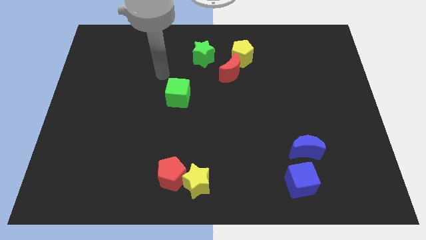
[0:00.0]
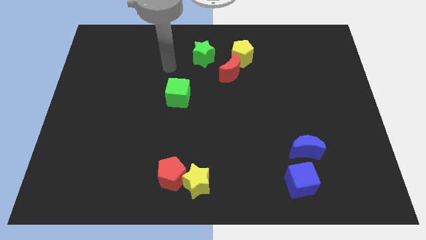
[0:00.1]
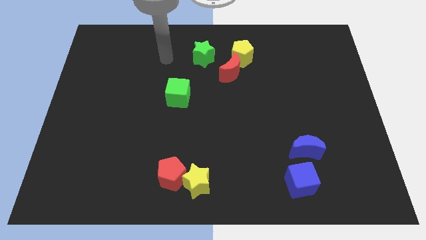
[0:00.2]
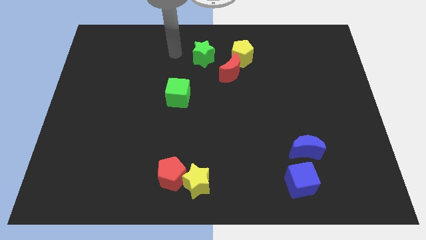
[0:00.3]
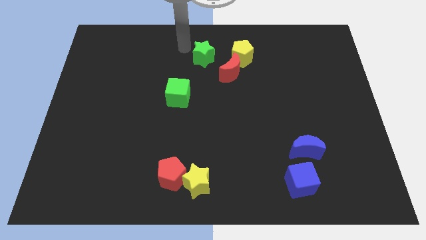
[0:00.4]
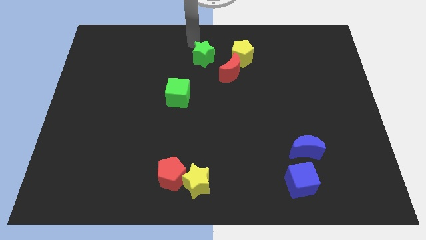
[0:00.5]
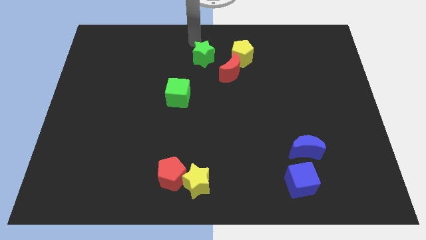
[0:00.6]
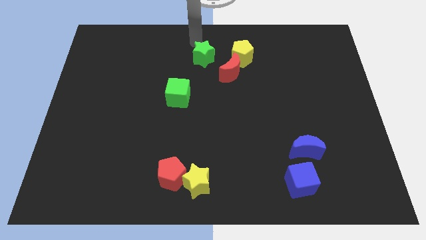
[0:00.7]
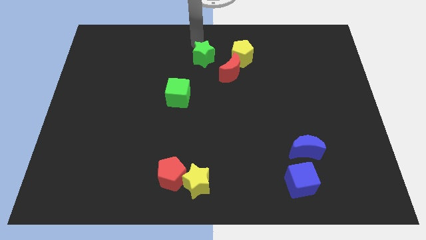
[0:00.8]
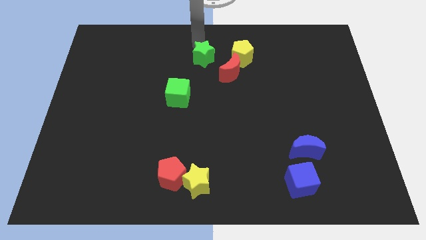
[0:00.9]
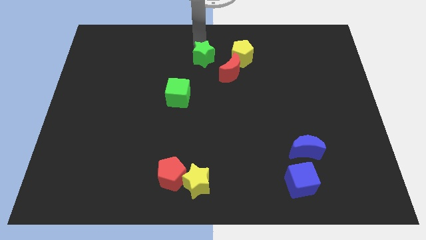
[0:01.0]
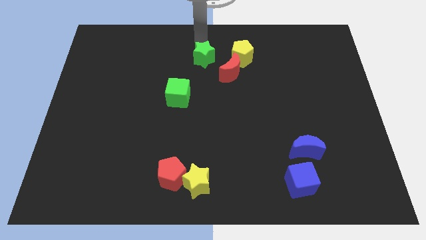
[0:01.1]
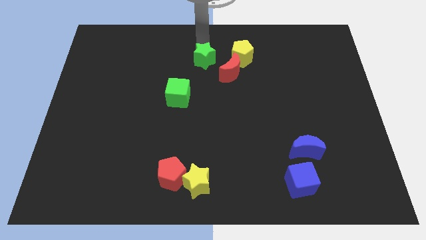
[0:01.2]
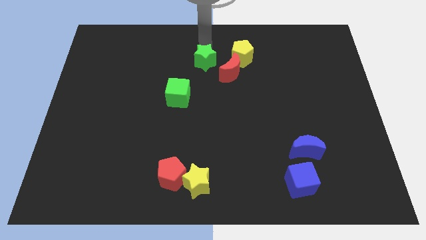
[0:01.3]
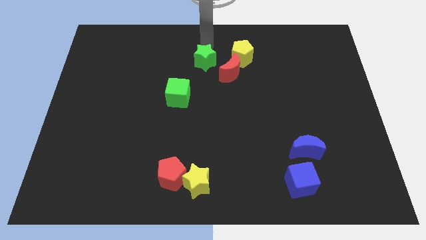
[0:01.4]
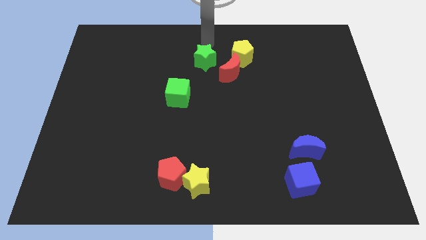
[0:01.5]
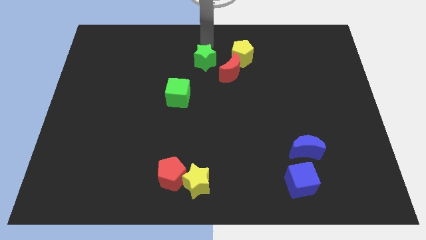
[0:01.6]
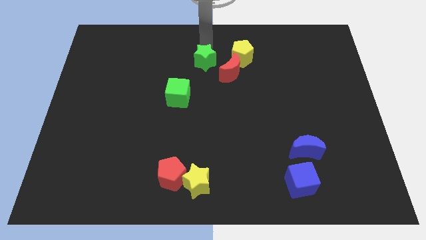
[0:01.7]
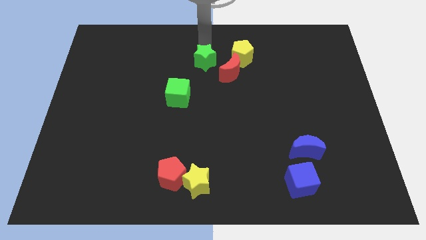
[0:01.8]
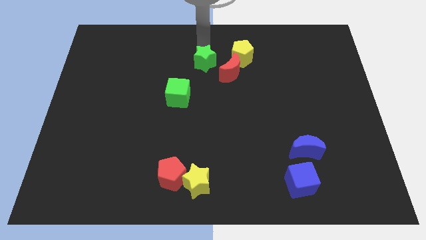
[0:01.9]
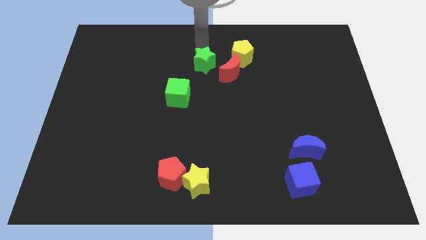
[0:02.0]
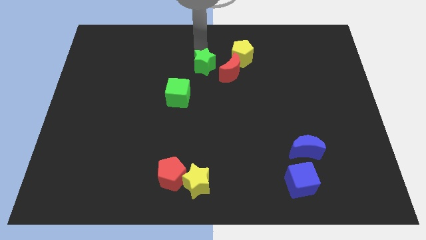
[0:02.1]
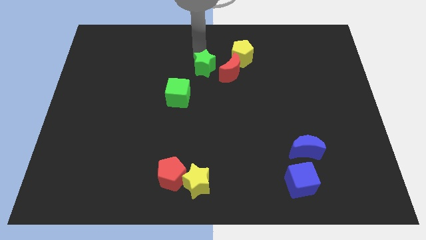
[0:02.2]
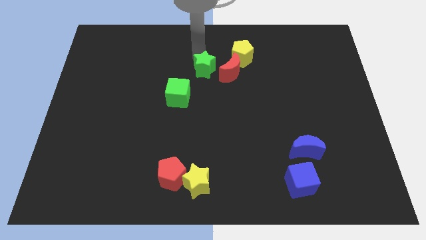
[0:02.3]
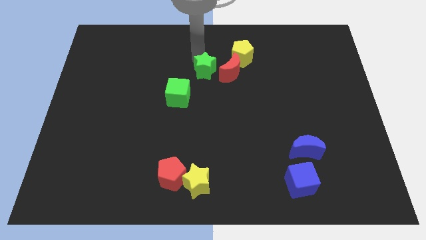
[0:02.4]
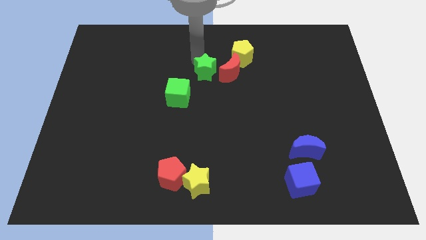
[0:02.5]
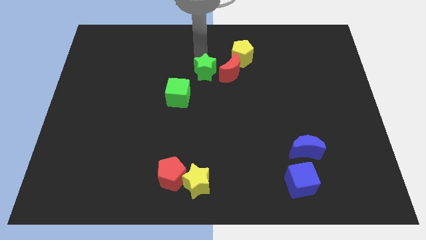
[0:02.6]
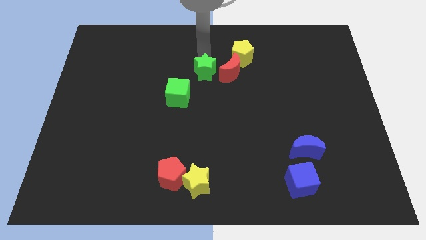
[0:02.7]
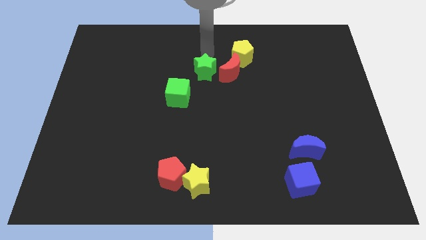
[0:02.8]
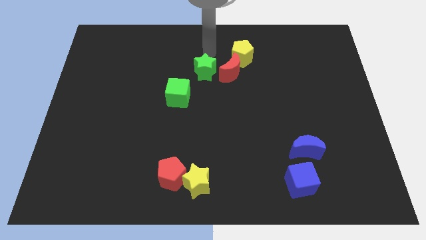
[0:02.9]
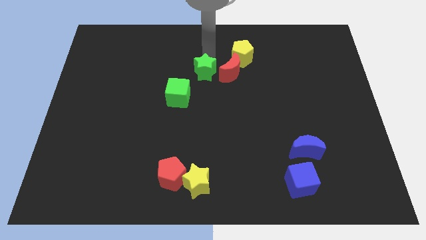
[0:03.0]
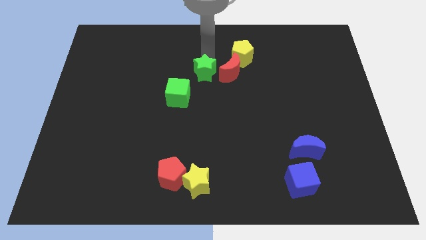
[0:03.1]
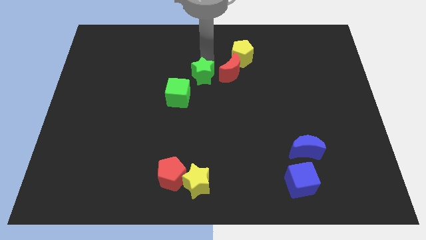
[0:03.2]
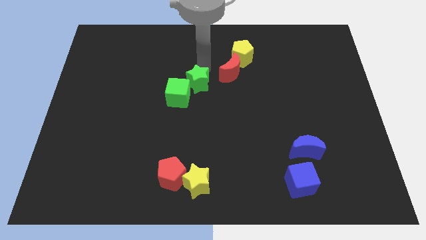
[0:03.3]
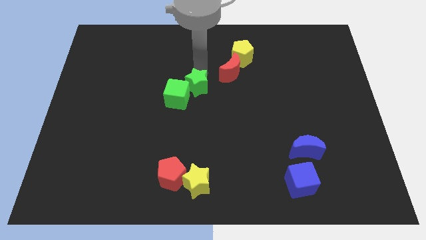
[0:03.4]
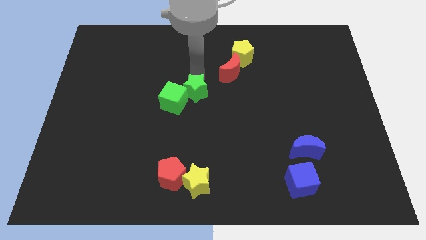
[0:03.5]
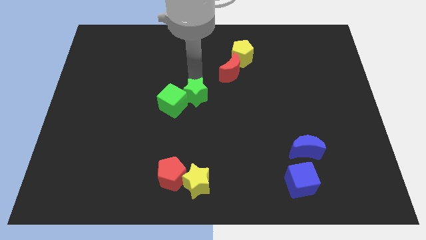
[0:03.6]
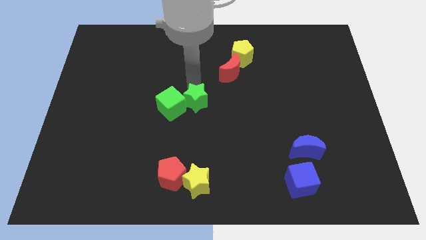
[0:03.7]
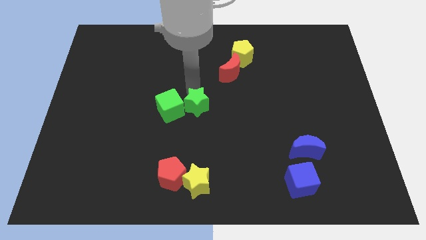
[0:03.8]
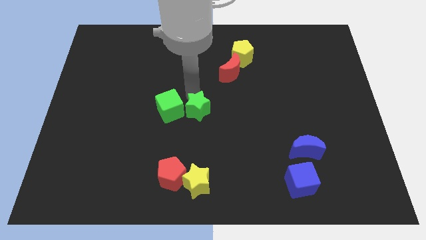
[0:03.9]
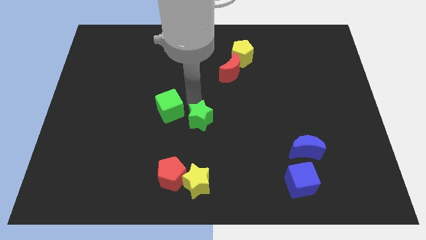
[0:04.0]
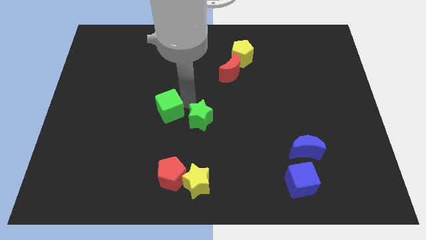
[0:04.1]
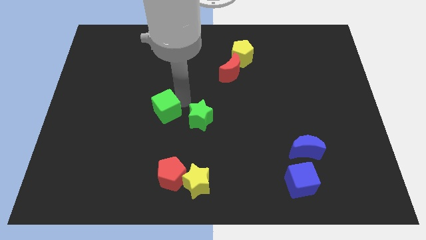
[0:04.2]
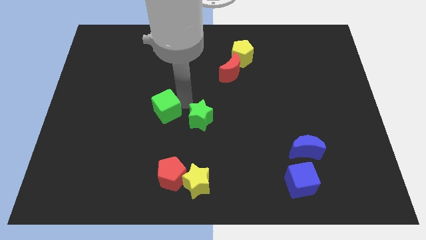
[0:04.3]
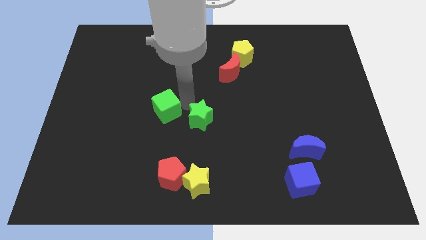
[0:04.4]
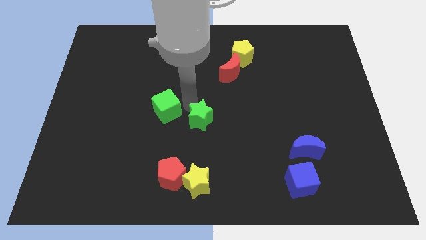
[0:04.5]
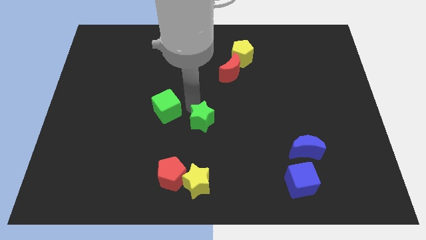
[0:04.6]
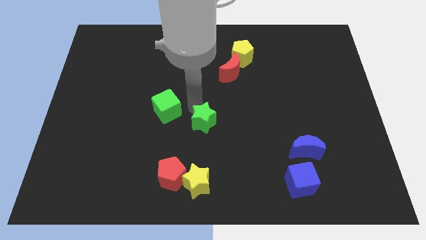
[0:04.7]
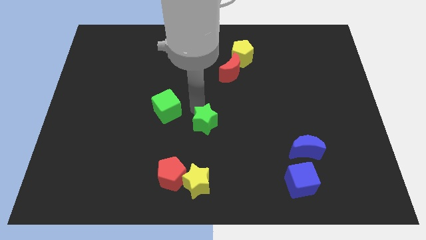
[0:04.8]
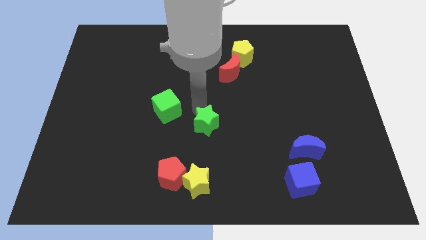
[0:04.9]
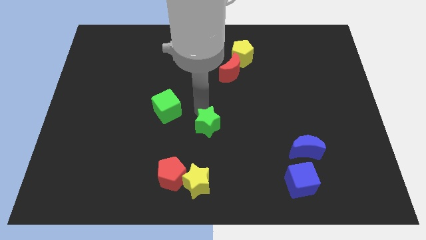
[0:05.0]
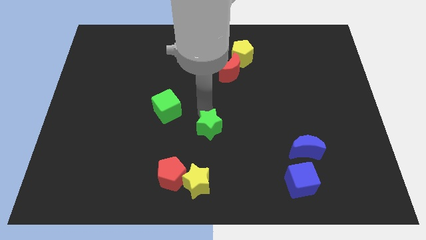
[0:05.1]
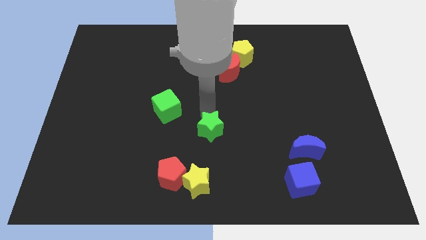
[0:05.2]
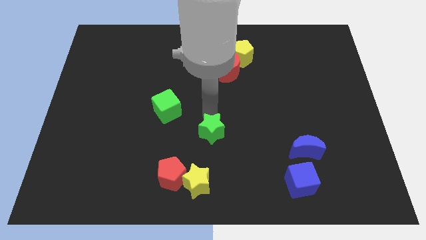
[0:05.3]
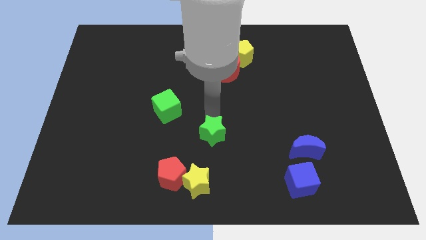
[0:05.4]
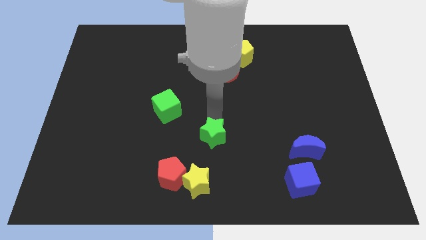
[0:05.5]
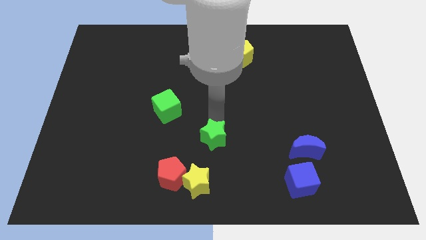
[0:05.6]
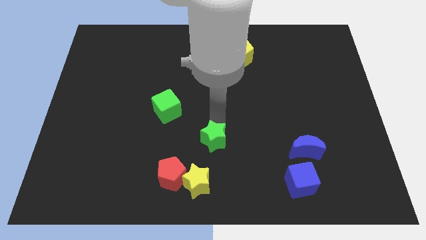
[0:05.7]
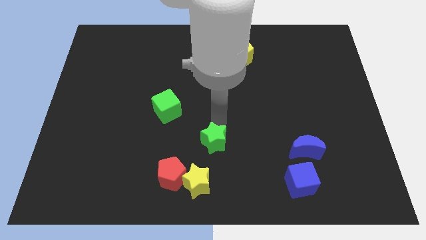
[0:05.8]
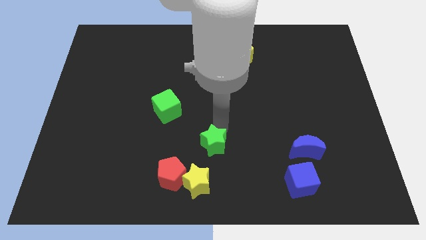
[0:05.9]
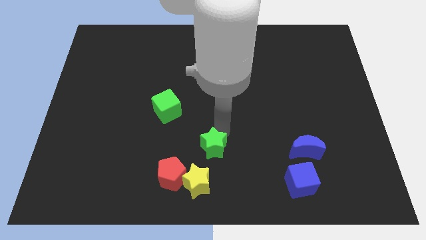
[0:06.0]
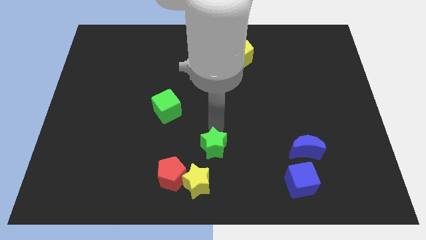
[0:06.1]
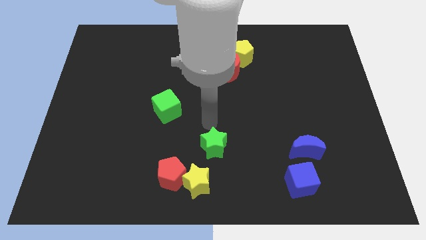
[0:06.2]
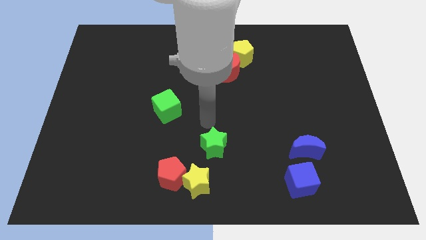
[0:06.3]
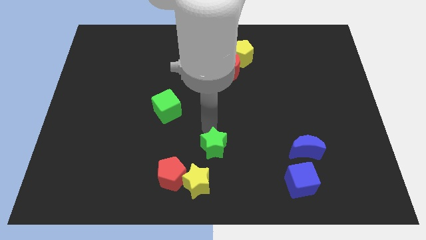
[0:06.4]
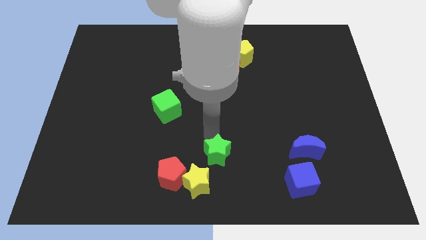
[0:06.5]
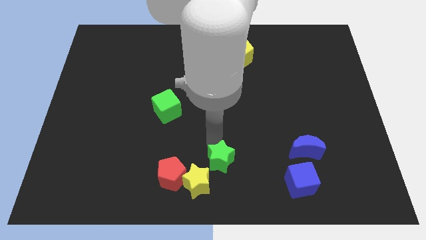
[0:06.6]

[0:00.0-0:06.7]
put the green star to the right side of the red pentagon
